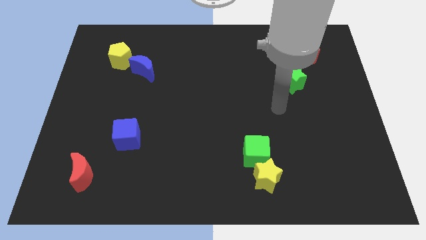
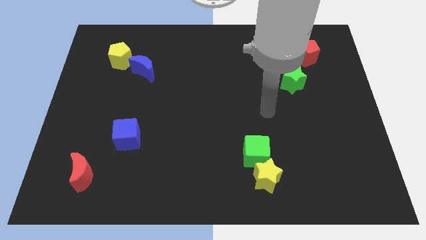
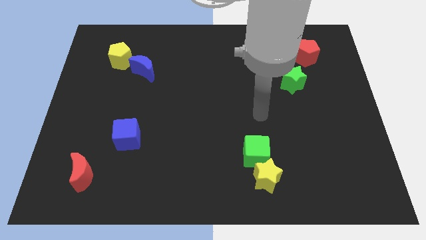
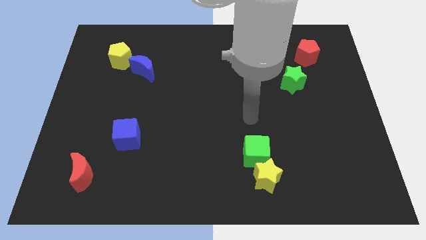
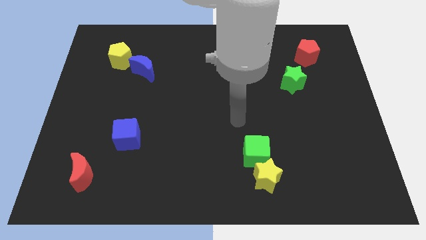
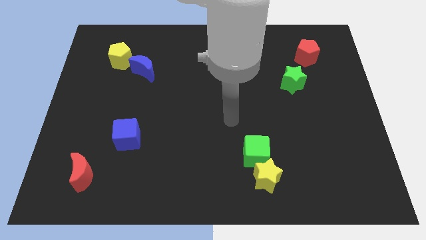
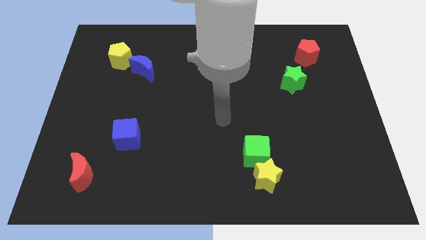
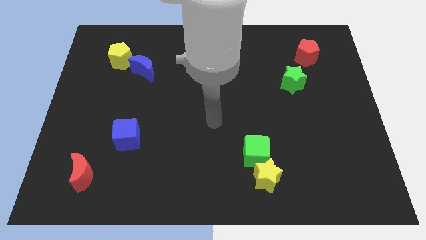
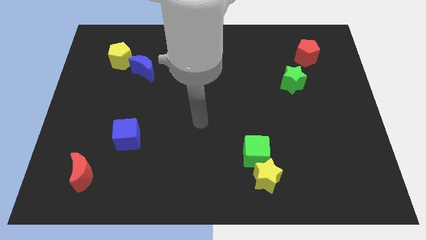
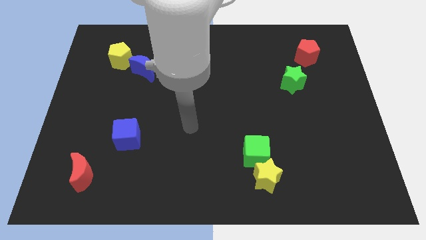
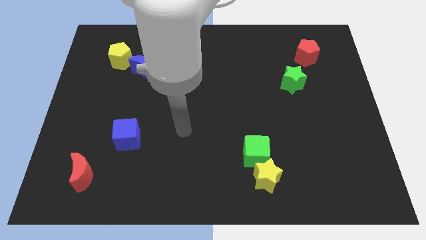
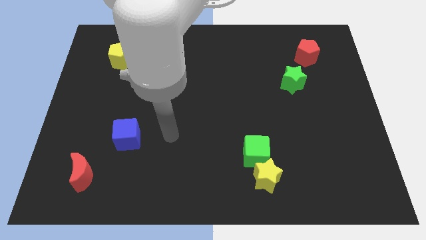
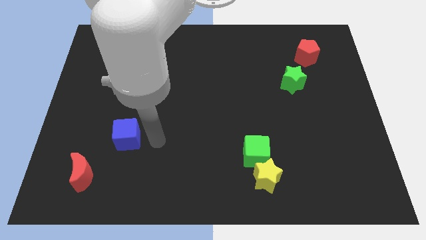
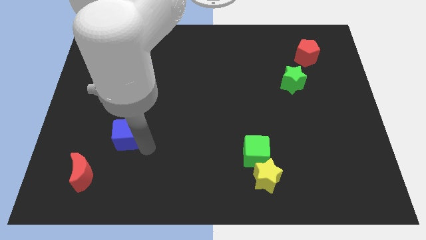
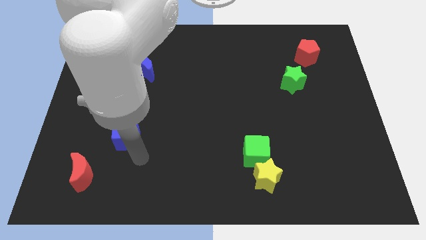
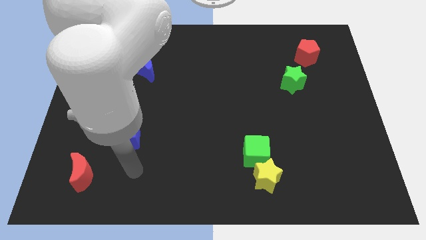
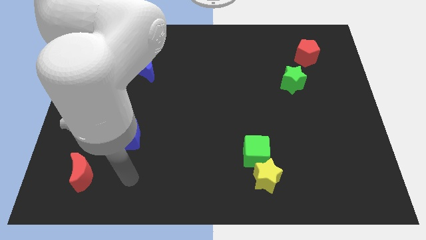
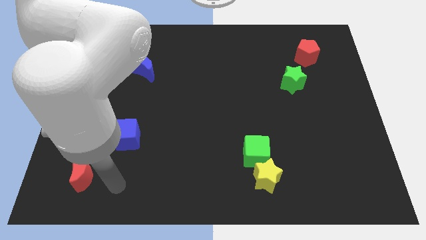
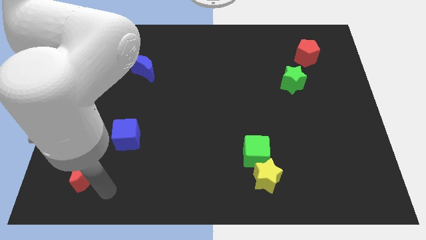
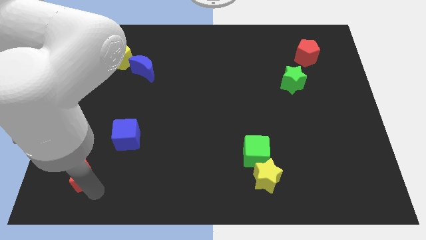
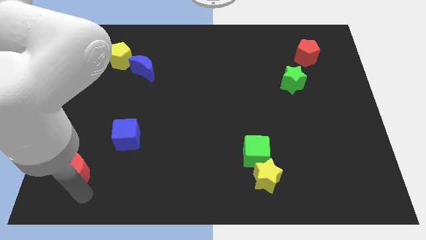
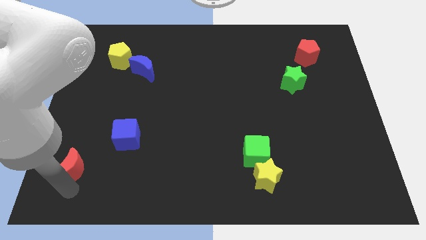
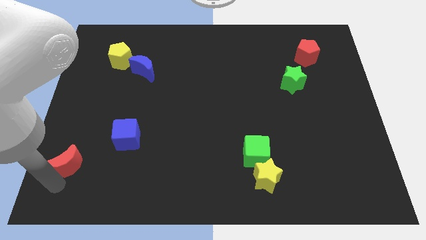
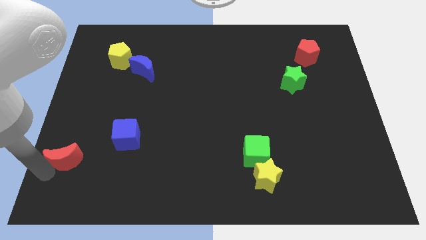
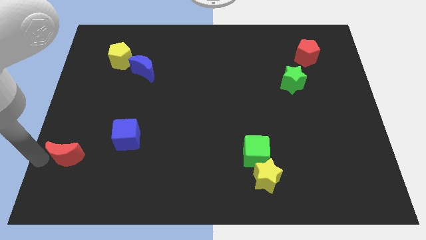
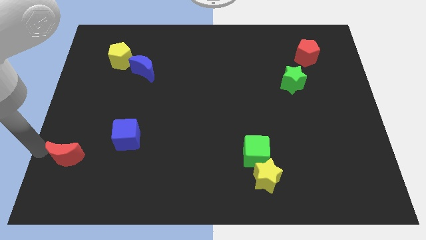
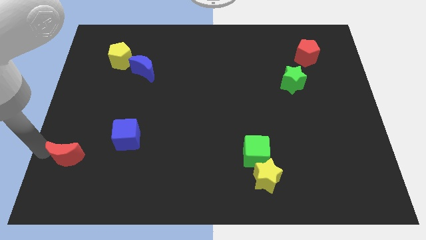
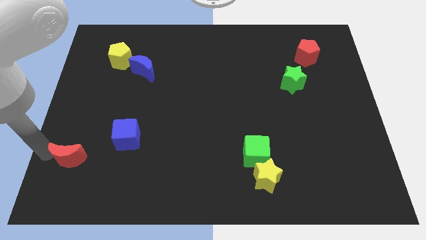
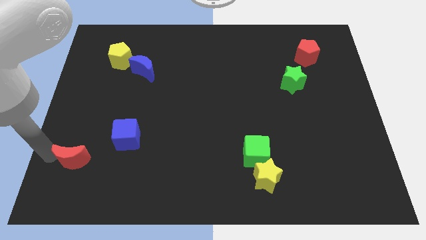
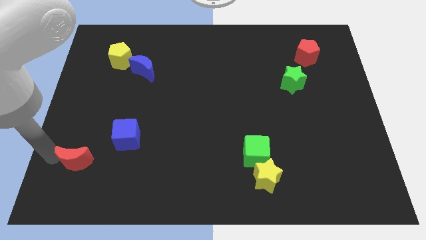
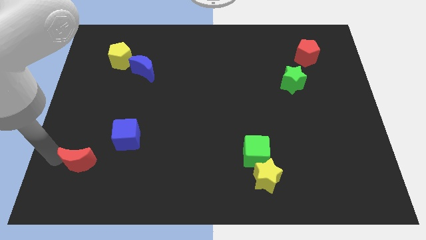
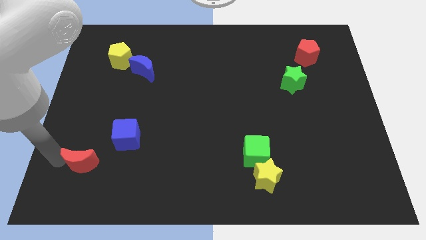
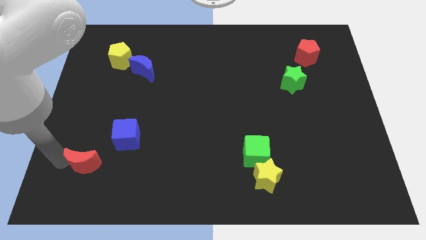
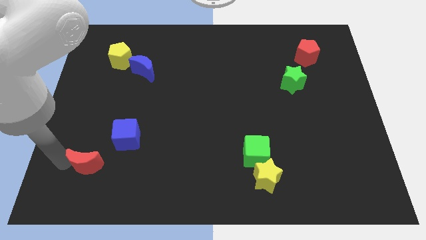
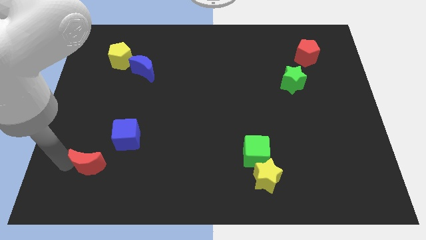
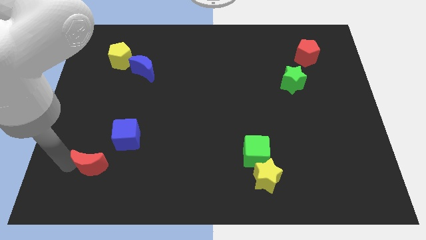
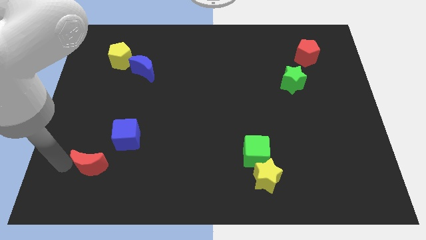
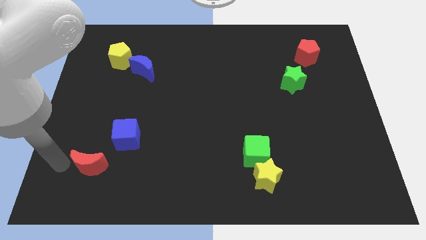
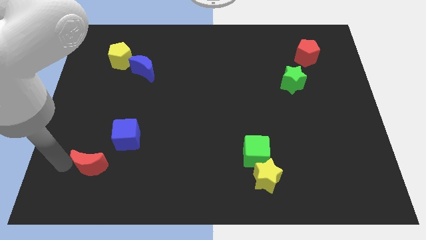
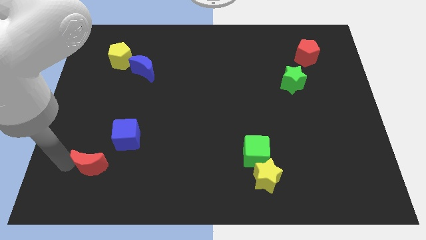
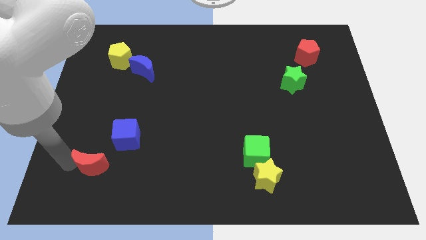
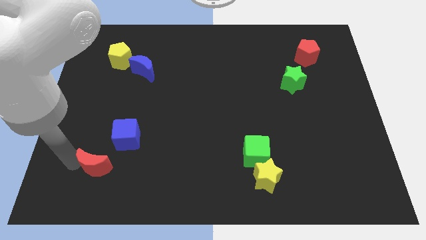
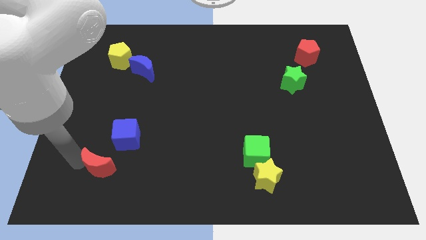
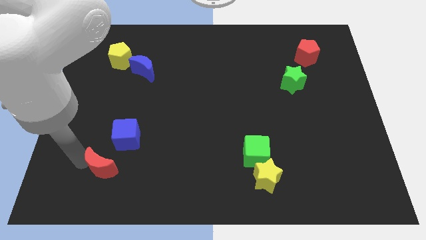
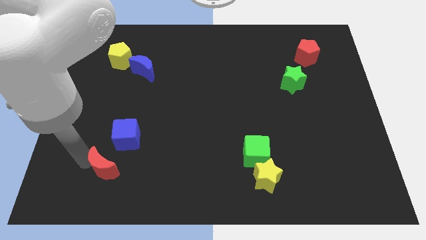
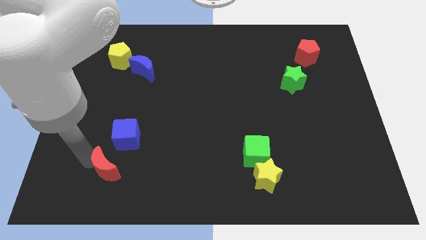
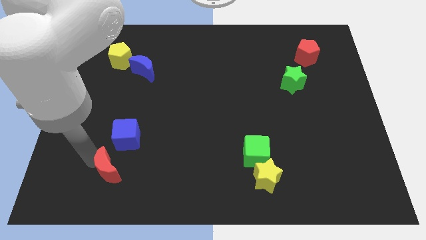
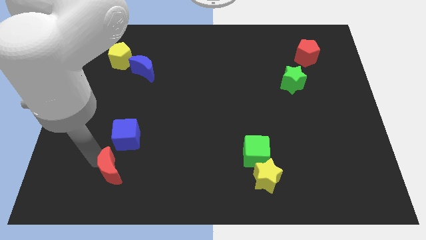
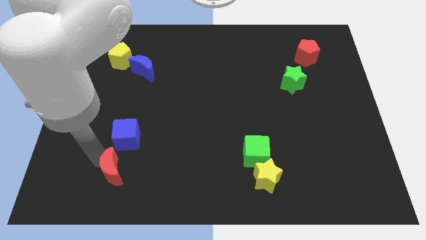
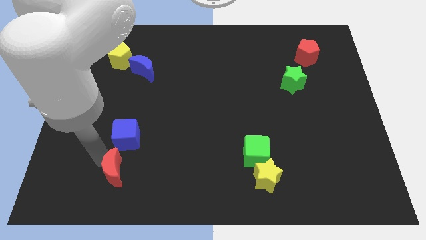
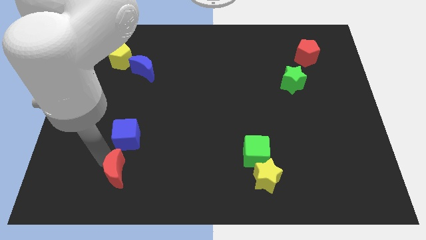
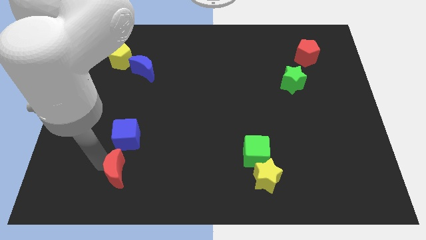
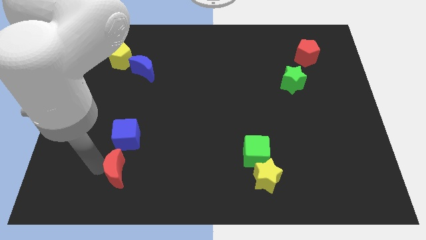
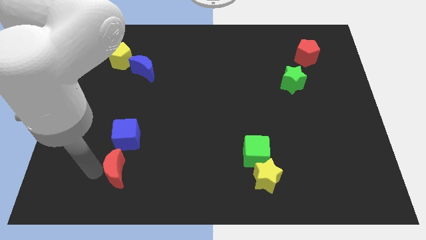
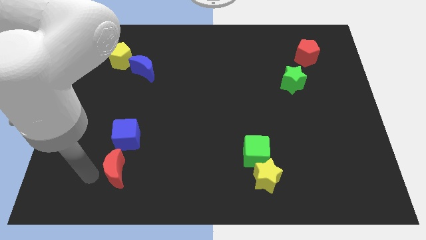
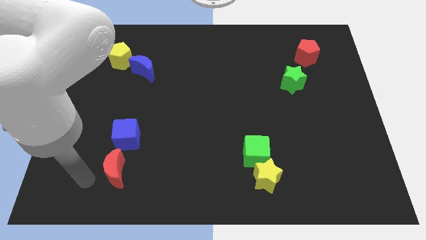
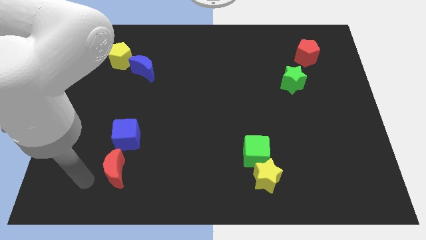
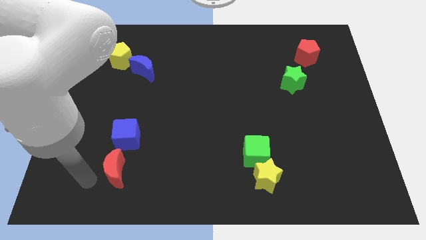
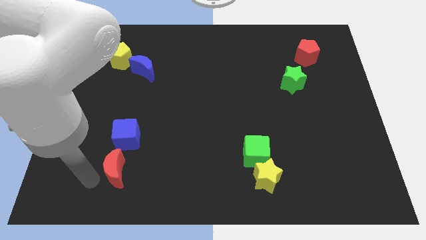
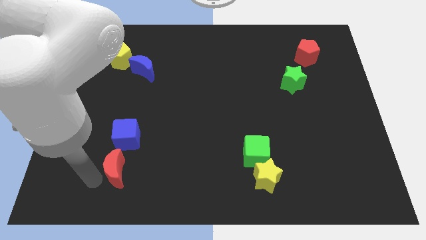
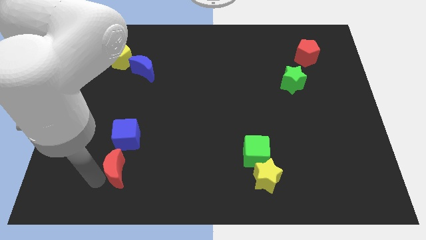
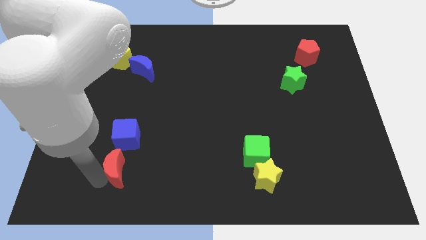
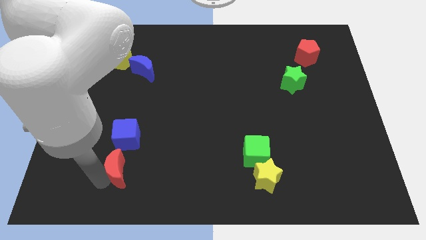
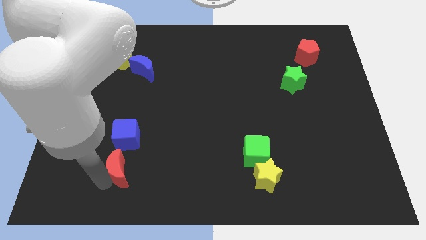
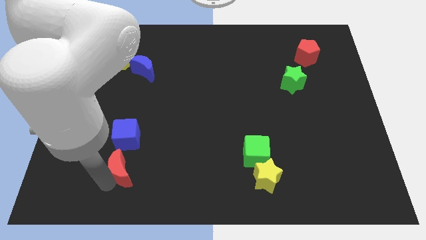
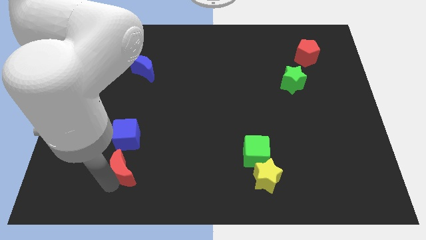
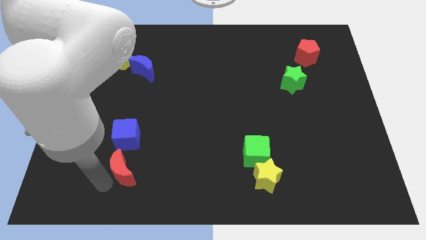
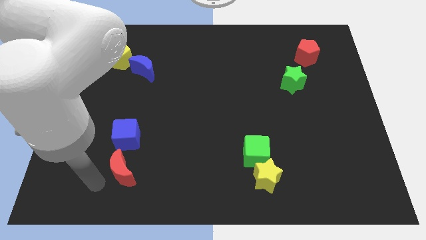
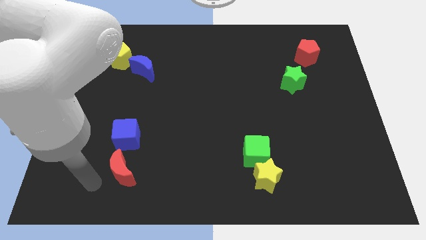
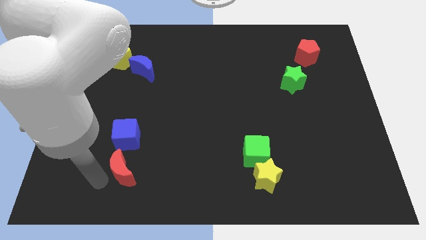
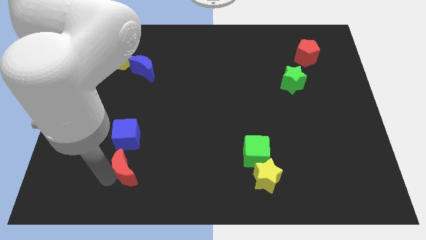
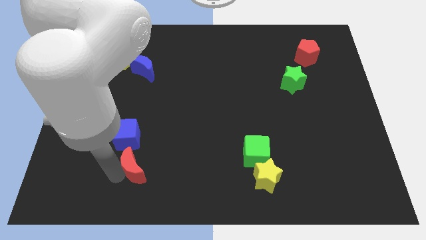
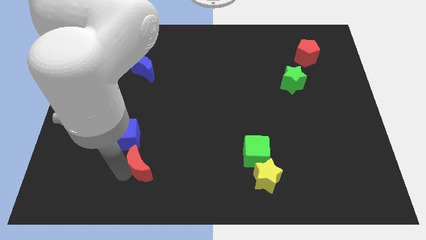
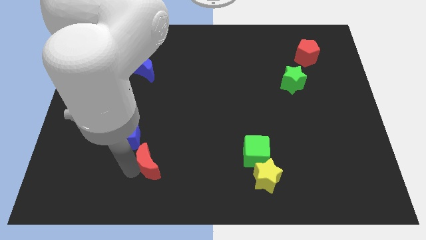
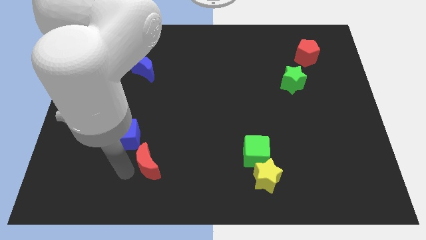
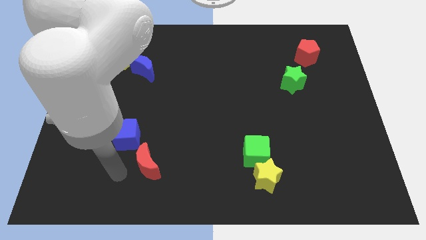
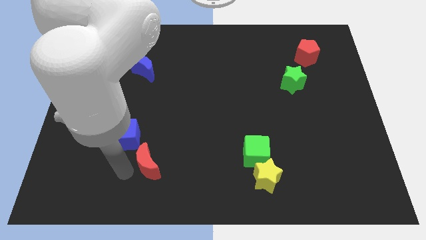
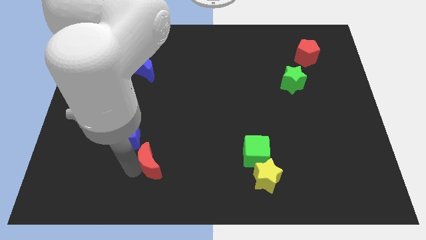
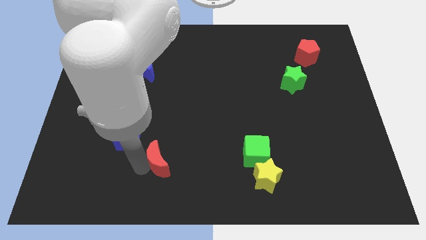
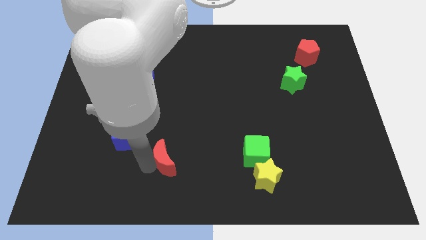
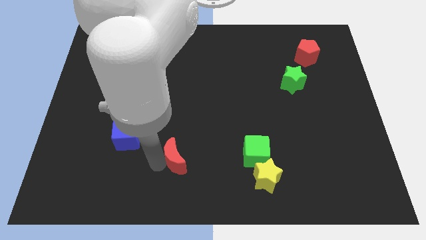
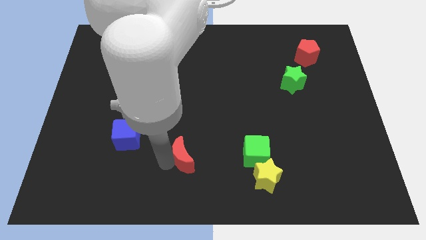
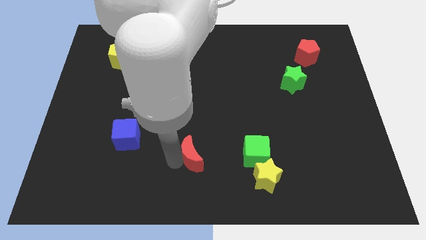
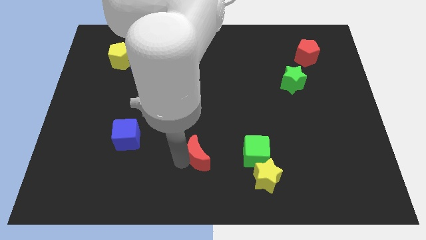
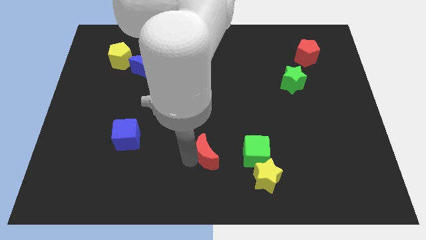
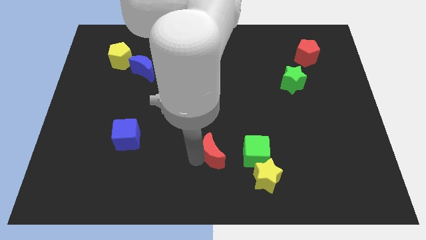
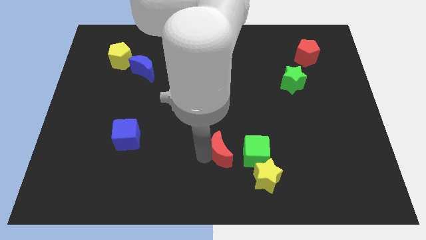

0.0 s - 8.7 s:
move the red moon to the top left side of the yellow star
